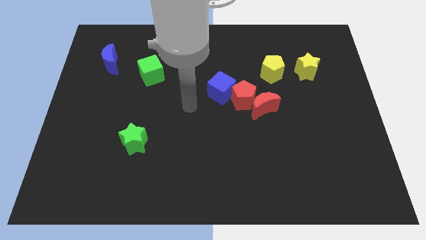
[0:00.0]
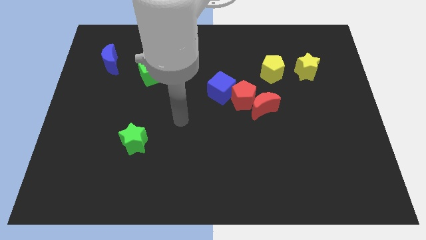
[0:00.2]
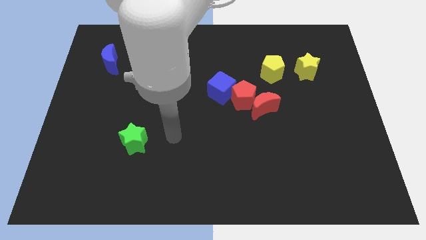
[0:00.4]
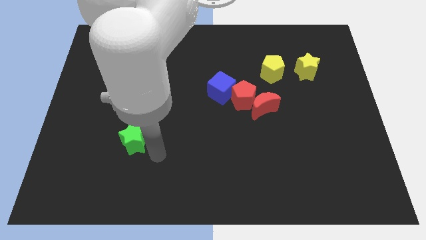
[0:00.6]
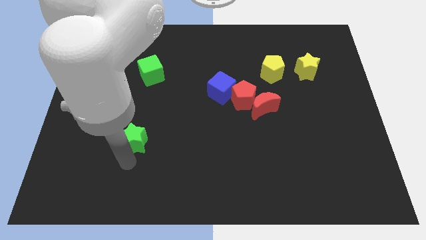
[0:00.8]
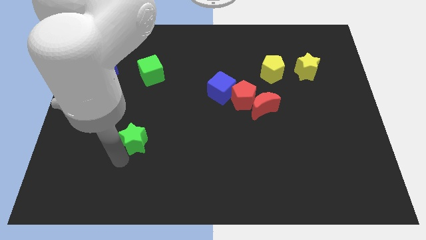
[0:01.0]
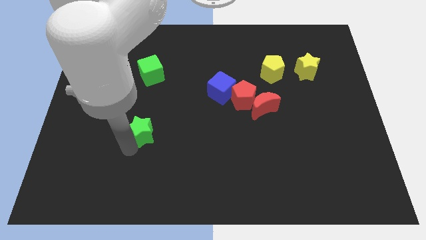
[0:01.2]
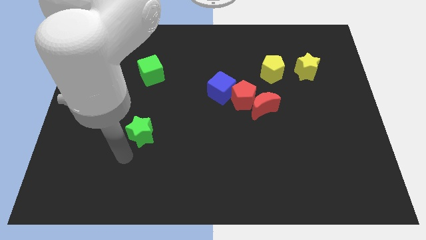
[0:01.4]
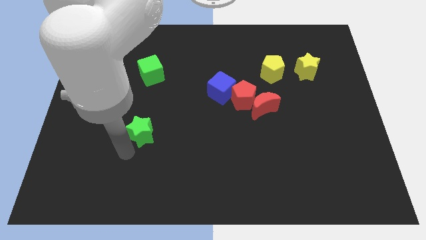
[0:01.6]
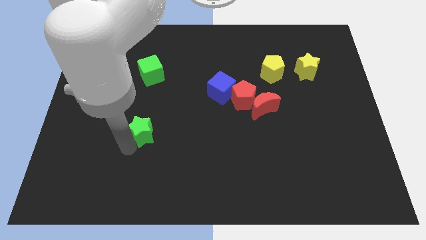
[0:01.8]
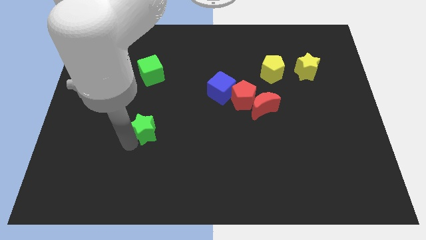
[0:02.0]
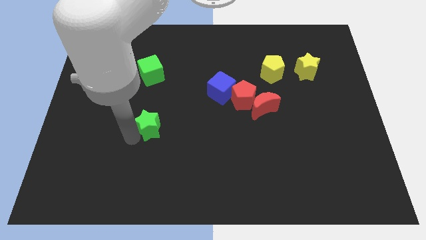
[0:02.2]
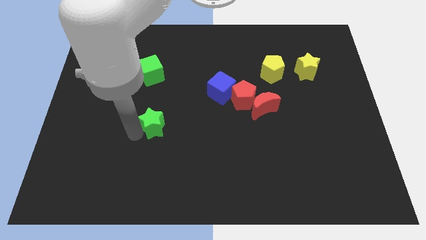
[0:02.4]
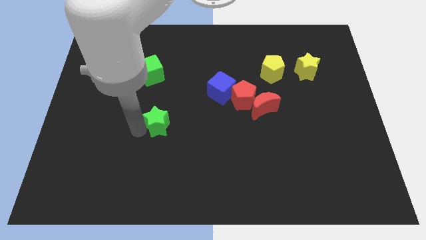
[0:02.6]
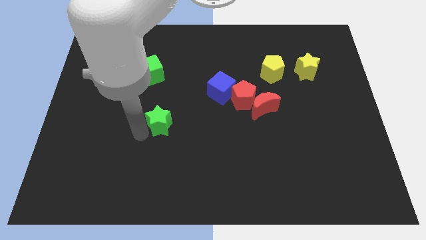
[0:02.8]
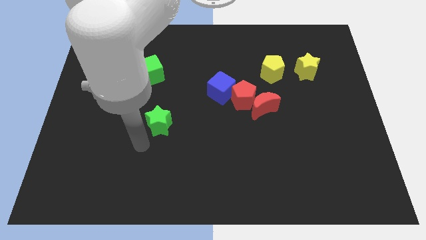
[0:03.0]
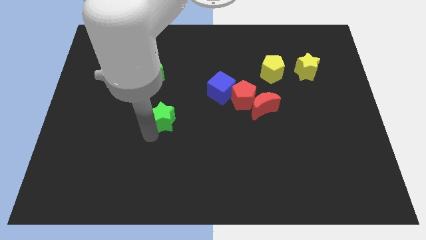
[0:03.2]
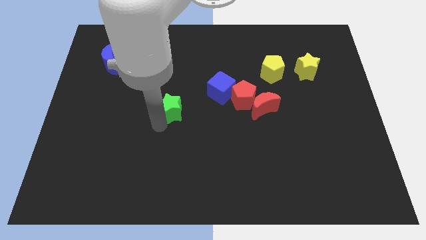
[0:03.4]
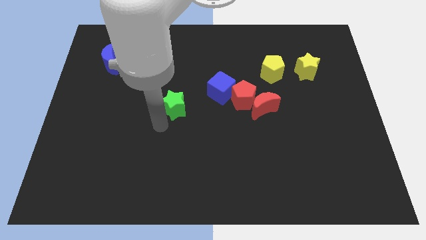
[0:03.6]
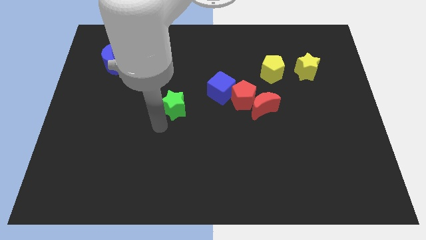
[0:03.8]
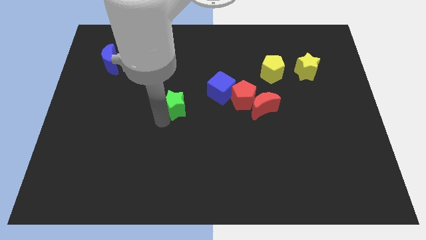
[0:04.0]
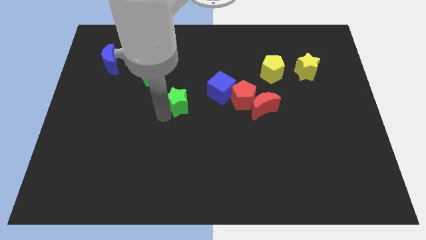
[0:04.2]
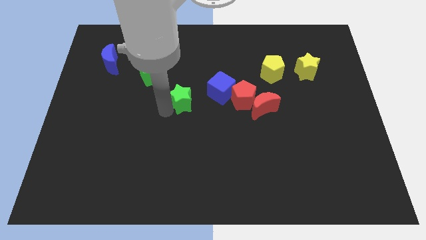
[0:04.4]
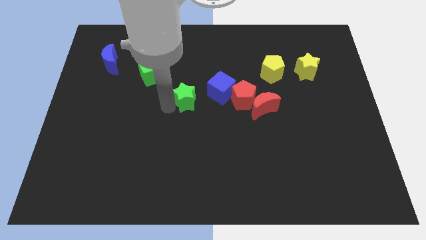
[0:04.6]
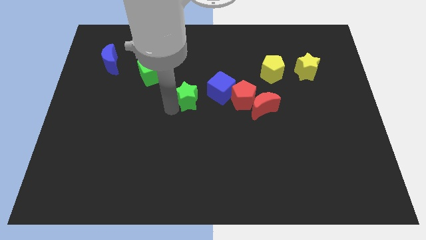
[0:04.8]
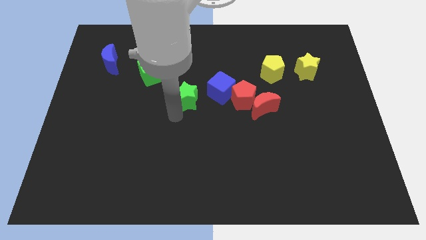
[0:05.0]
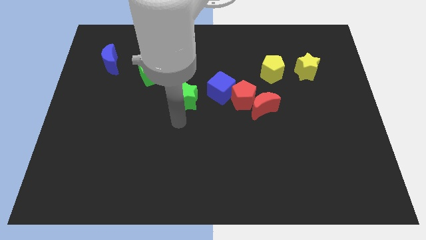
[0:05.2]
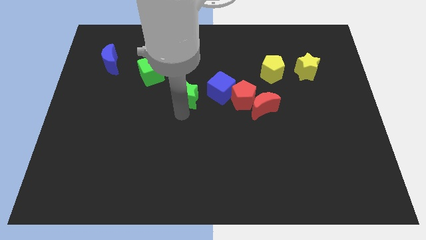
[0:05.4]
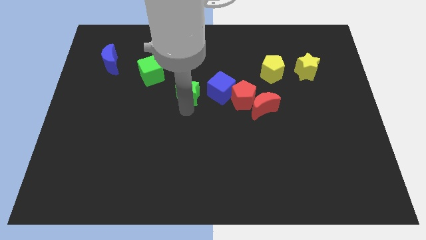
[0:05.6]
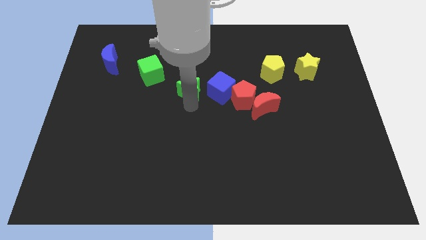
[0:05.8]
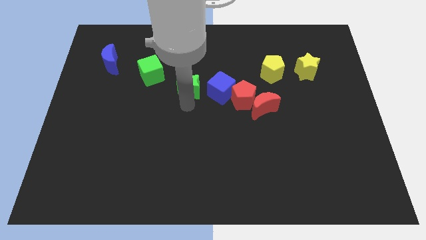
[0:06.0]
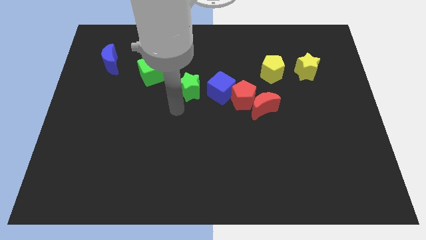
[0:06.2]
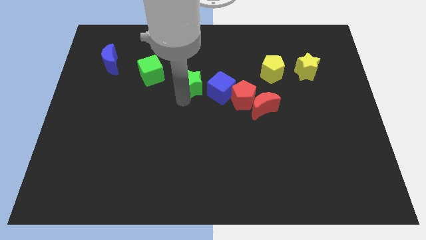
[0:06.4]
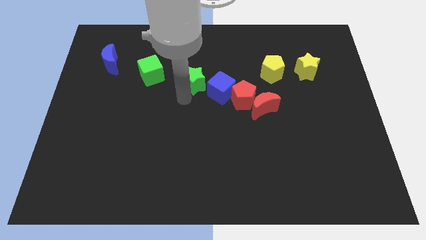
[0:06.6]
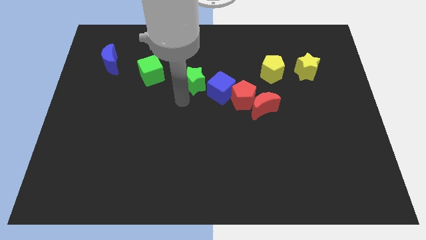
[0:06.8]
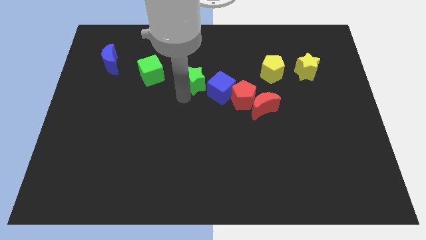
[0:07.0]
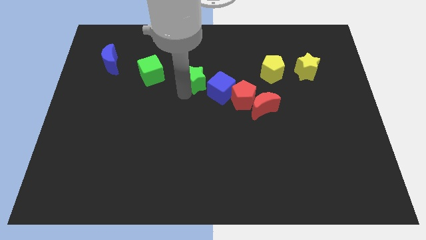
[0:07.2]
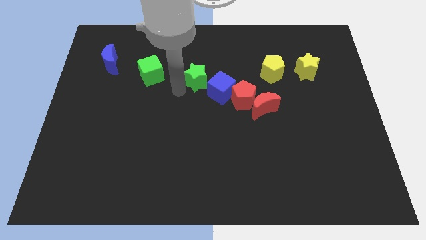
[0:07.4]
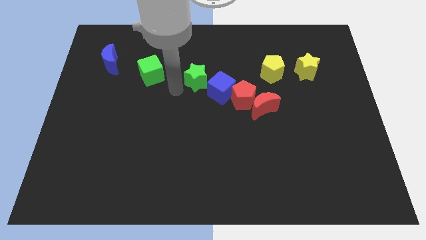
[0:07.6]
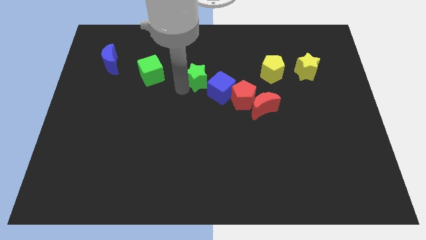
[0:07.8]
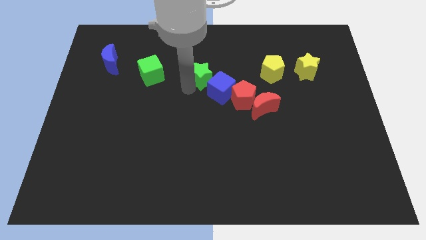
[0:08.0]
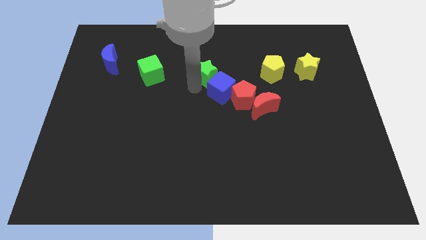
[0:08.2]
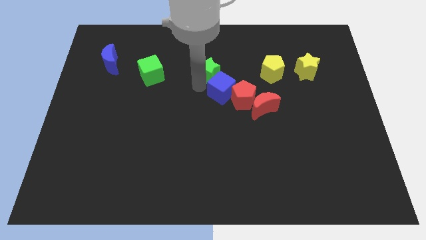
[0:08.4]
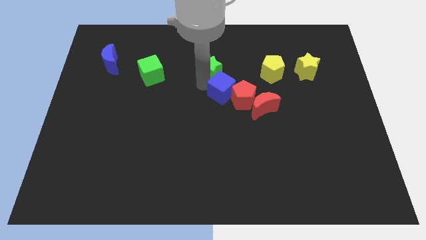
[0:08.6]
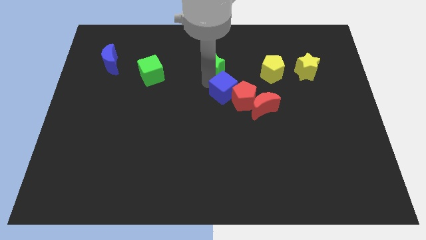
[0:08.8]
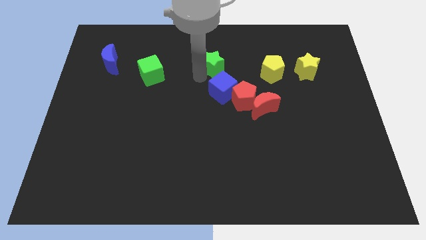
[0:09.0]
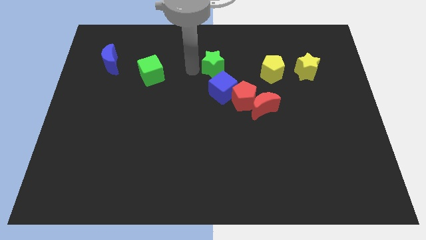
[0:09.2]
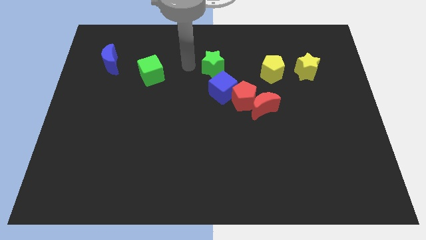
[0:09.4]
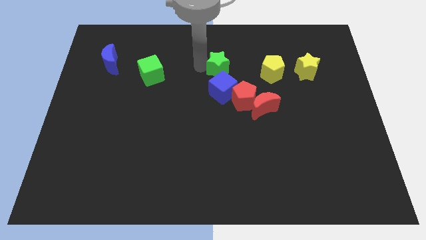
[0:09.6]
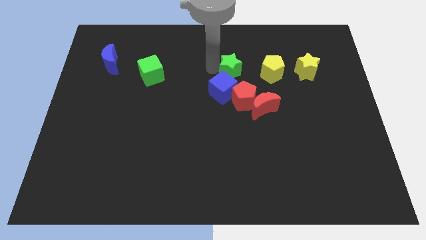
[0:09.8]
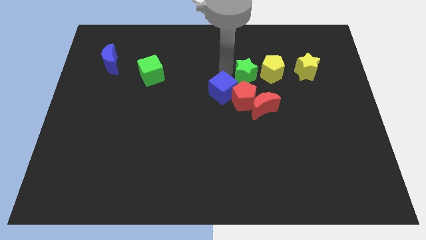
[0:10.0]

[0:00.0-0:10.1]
push the green star to the left of the yellow star

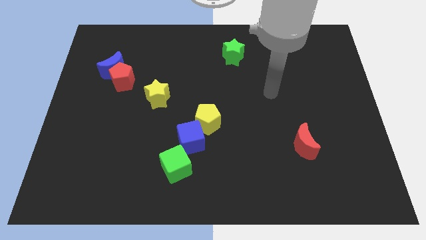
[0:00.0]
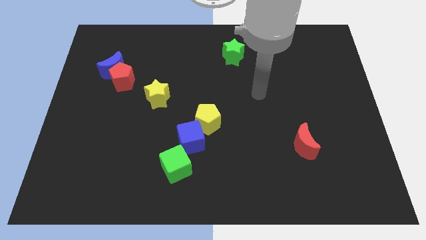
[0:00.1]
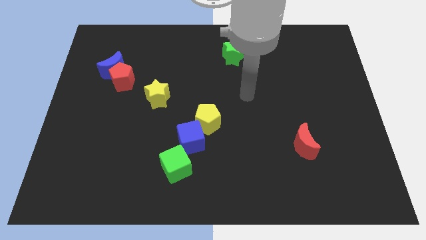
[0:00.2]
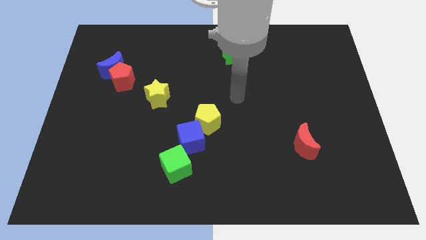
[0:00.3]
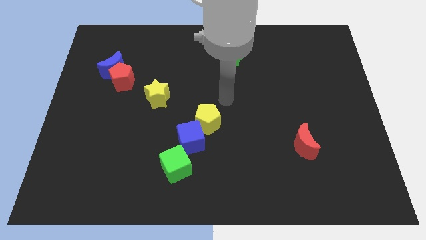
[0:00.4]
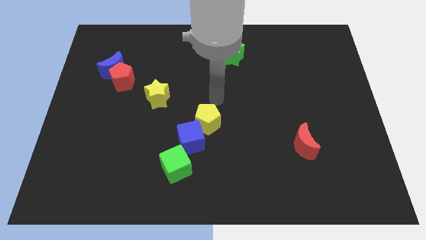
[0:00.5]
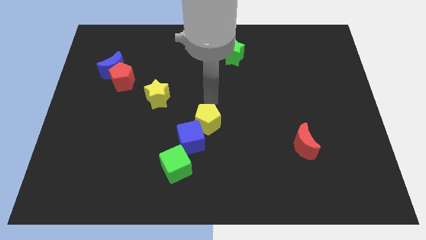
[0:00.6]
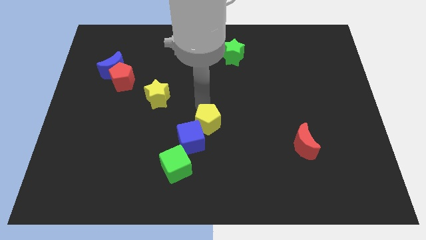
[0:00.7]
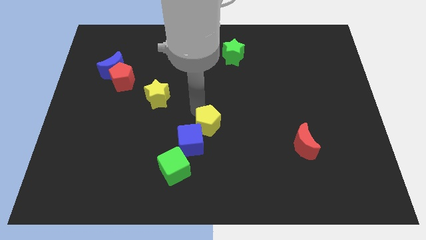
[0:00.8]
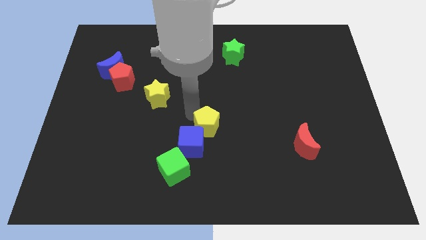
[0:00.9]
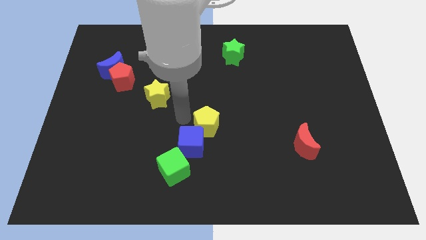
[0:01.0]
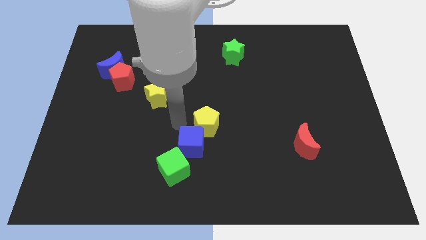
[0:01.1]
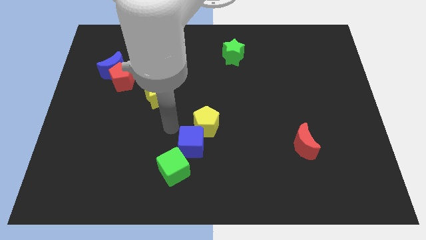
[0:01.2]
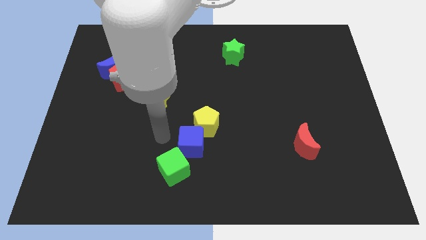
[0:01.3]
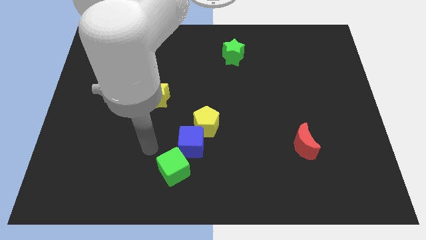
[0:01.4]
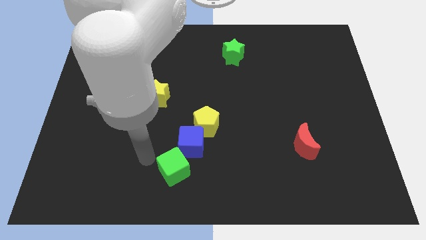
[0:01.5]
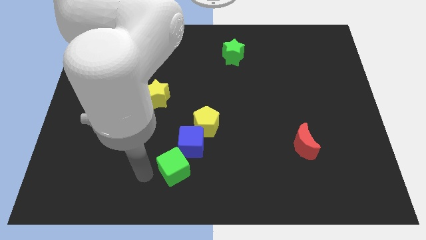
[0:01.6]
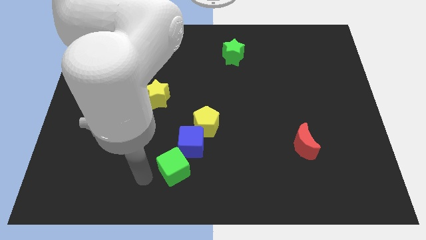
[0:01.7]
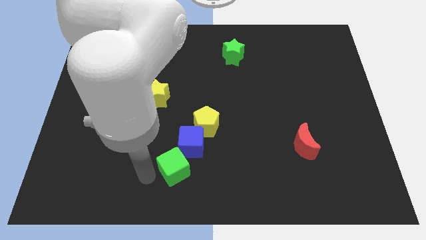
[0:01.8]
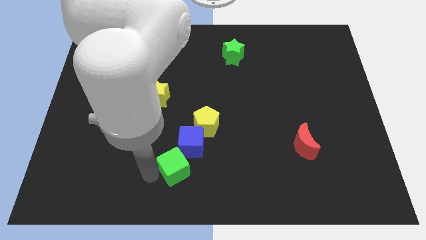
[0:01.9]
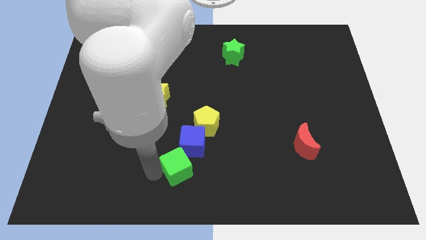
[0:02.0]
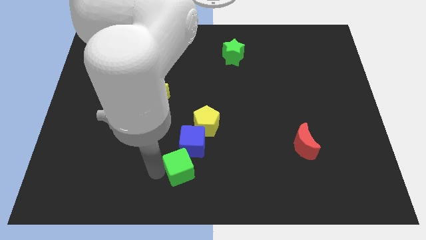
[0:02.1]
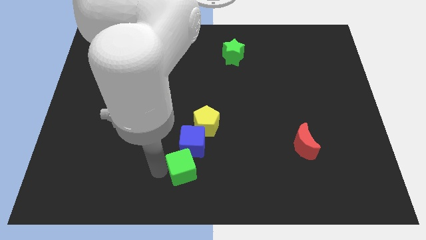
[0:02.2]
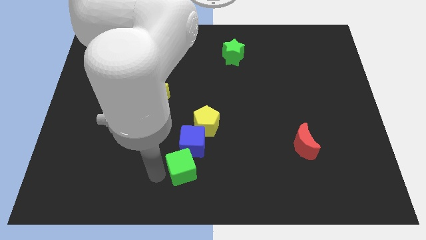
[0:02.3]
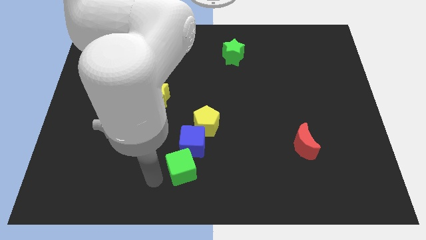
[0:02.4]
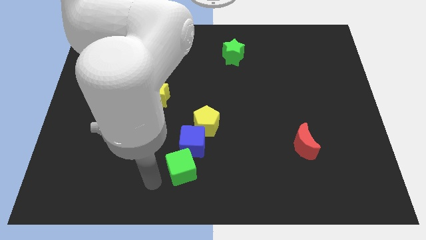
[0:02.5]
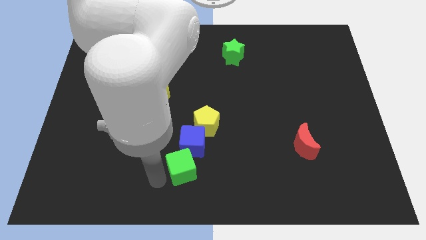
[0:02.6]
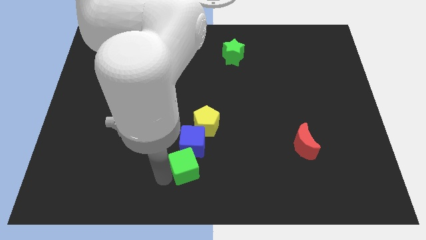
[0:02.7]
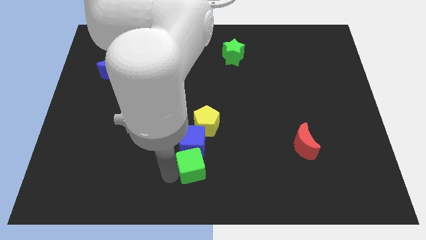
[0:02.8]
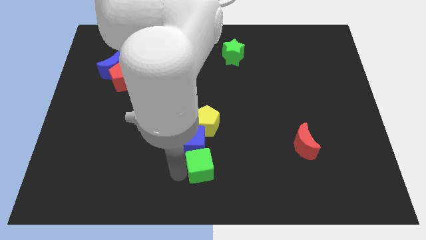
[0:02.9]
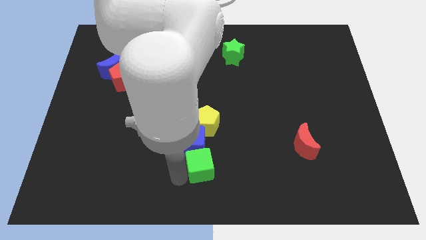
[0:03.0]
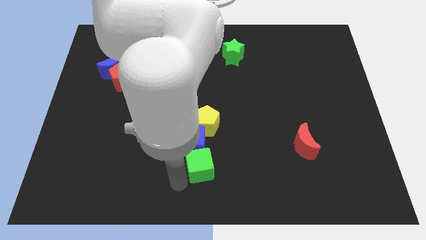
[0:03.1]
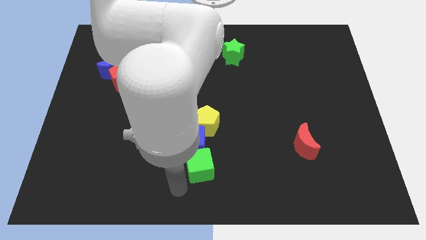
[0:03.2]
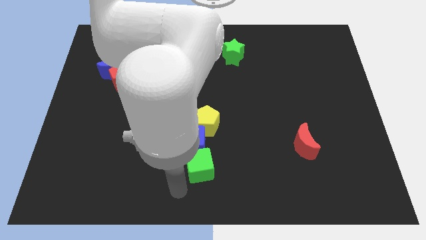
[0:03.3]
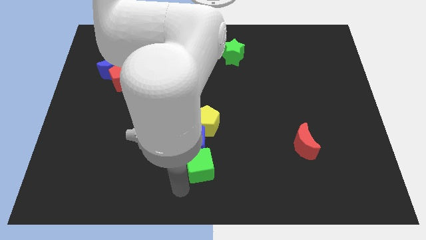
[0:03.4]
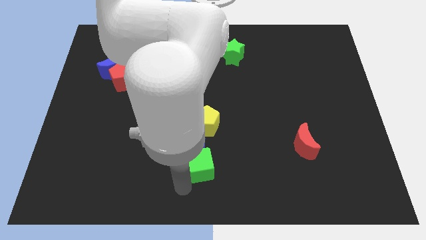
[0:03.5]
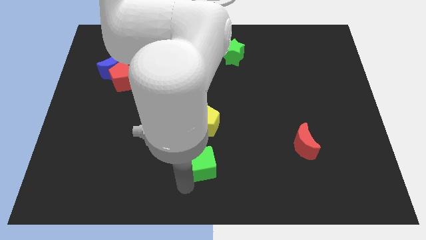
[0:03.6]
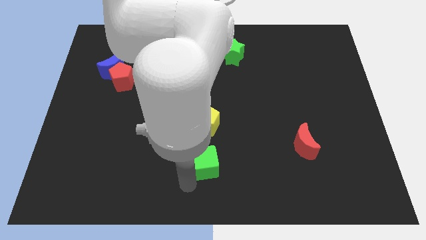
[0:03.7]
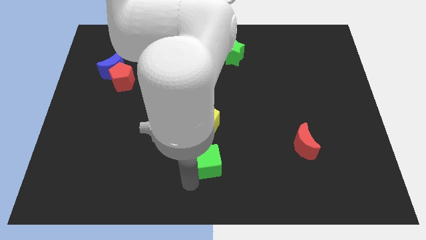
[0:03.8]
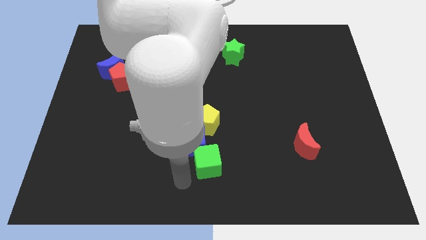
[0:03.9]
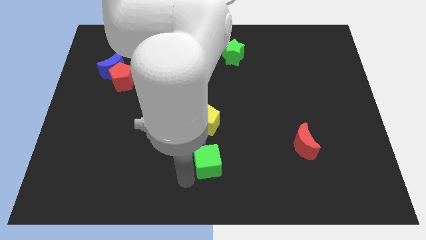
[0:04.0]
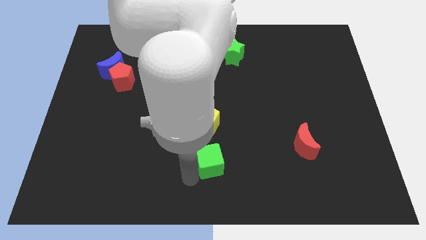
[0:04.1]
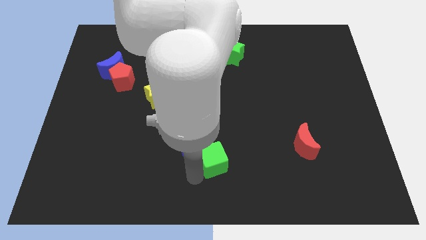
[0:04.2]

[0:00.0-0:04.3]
slide the green cube to the right of the blue cube
